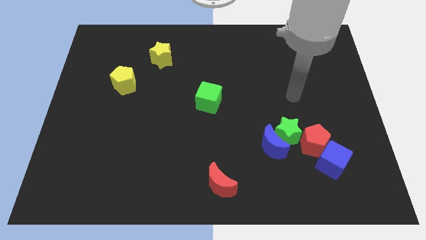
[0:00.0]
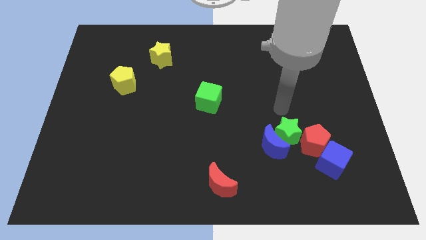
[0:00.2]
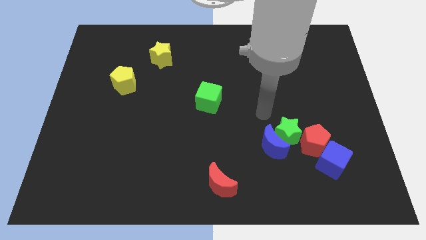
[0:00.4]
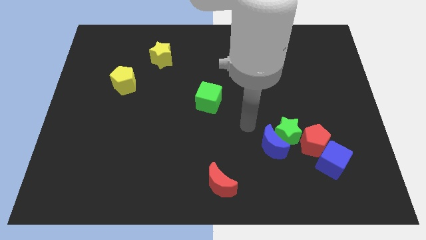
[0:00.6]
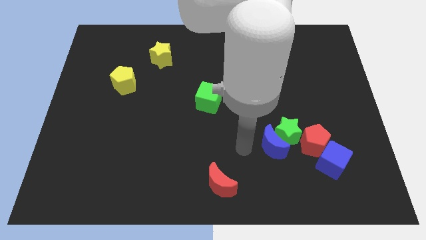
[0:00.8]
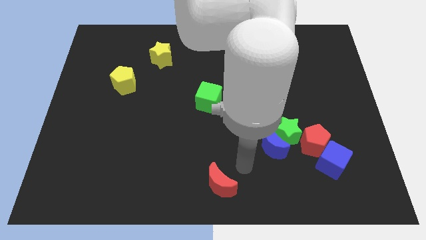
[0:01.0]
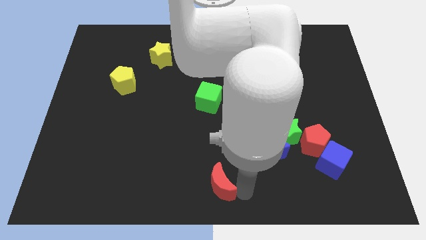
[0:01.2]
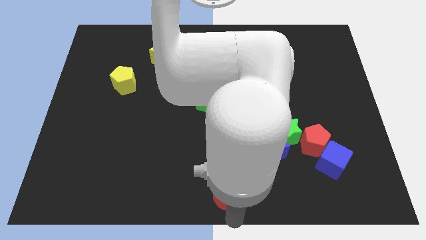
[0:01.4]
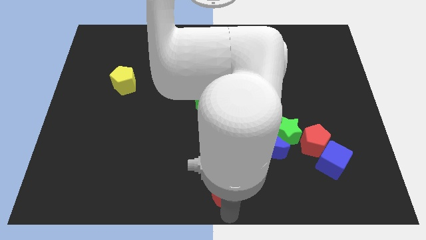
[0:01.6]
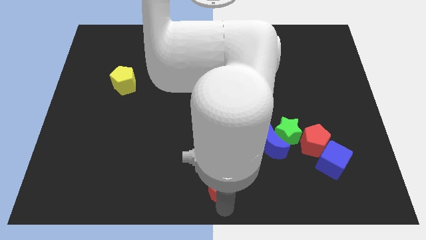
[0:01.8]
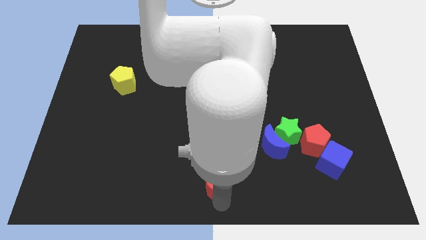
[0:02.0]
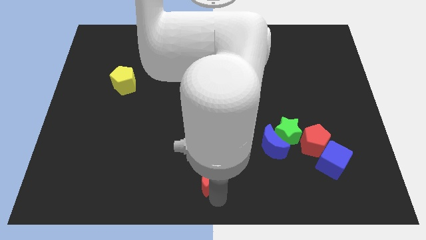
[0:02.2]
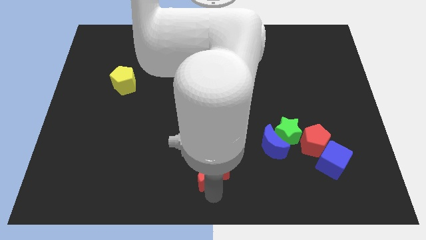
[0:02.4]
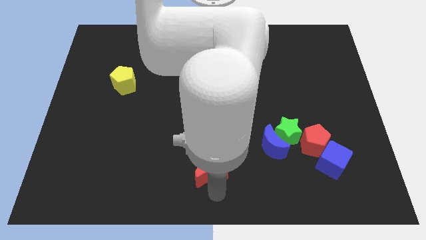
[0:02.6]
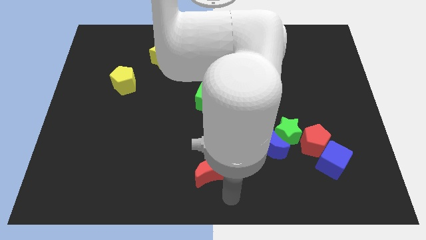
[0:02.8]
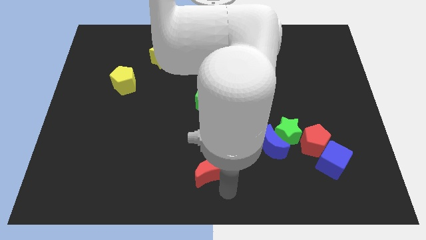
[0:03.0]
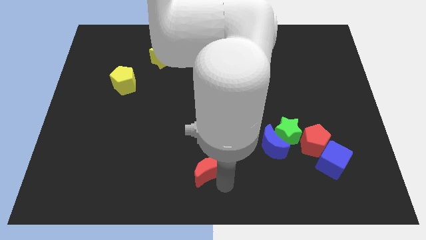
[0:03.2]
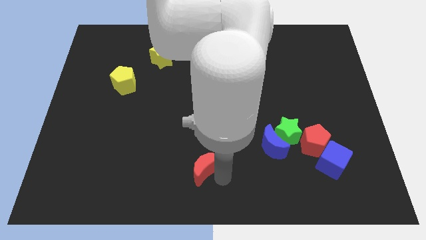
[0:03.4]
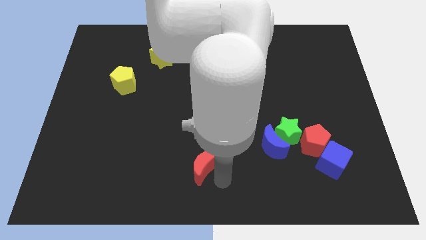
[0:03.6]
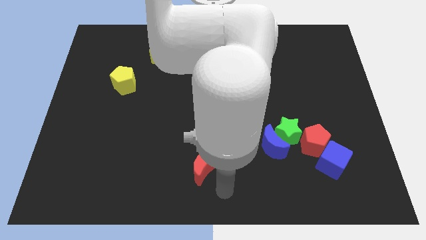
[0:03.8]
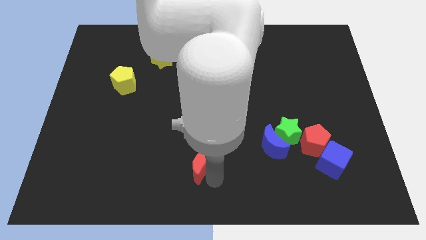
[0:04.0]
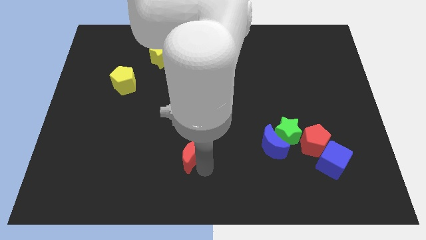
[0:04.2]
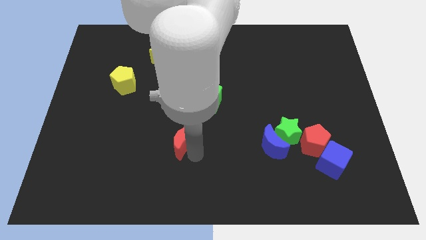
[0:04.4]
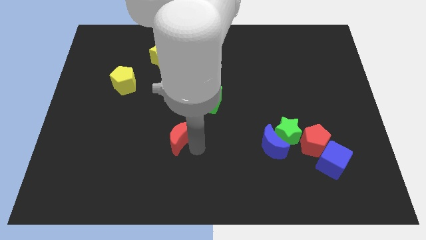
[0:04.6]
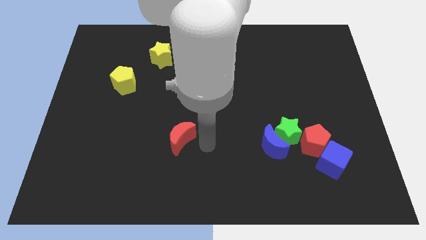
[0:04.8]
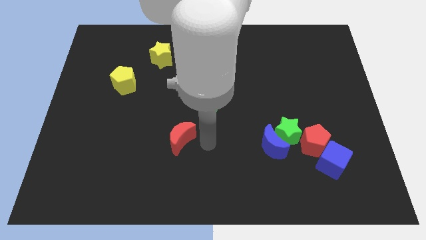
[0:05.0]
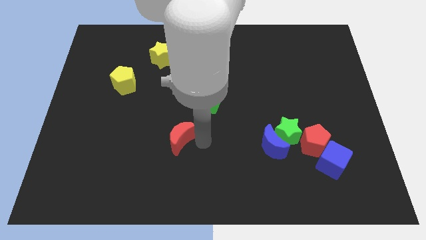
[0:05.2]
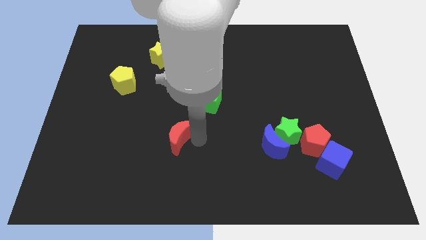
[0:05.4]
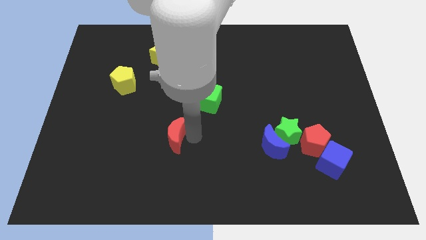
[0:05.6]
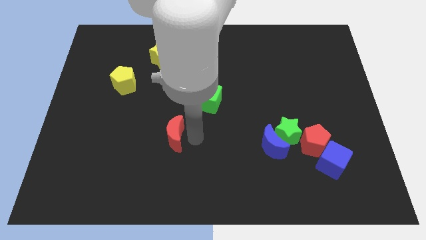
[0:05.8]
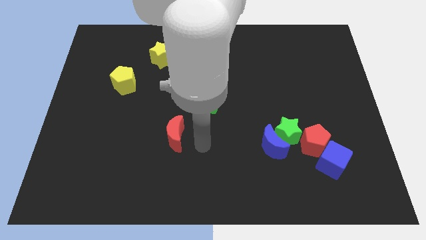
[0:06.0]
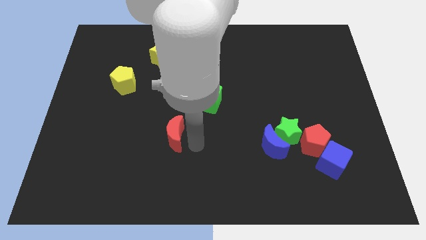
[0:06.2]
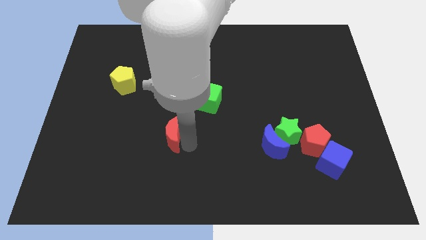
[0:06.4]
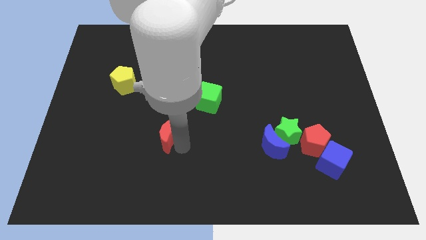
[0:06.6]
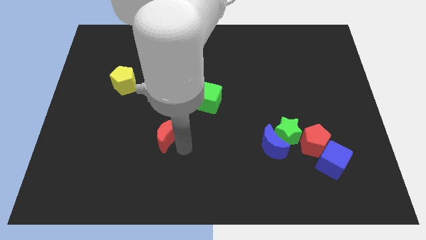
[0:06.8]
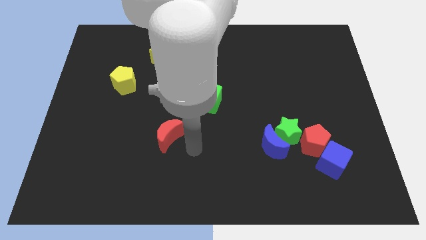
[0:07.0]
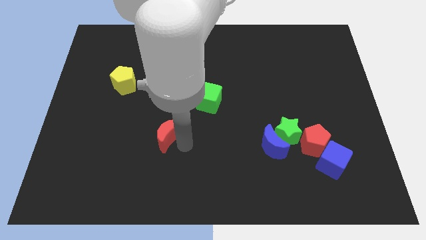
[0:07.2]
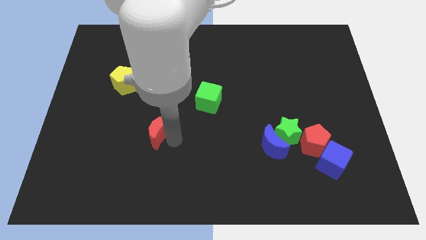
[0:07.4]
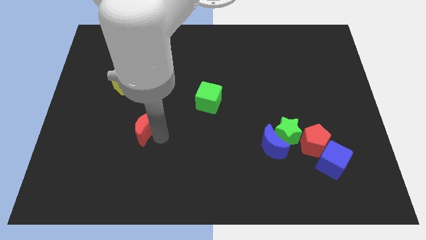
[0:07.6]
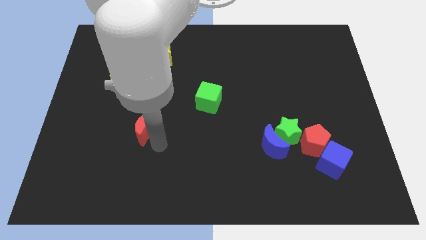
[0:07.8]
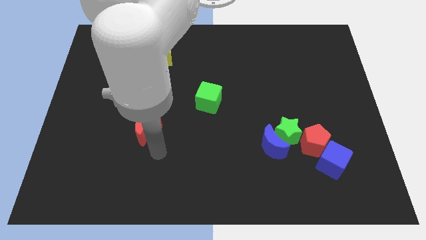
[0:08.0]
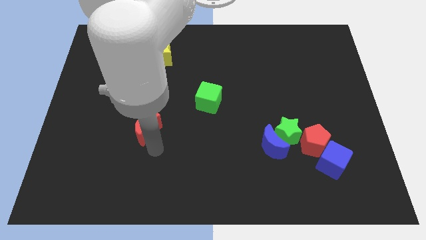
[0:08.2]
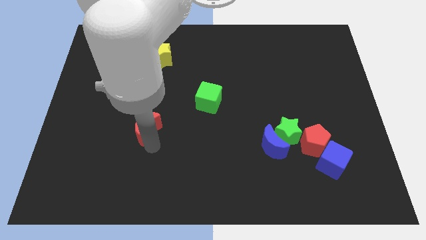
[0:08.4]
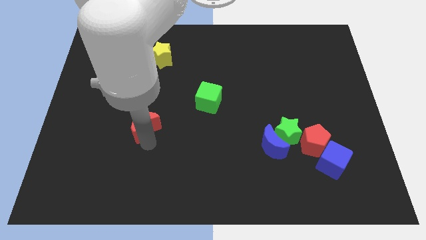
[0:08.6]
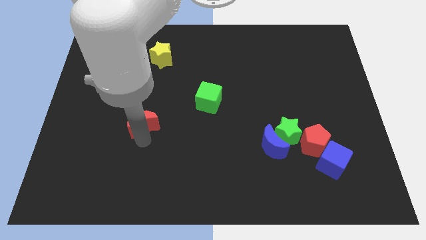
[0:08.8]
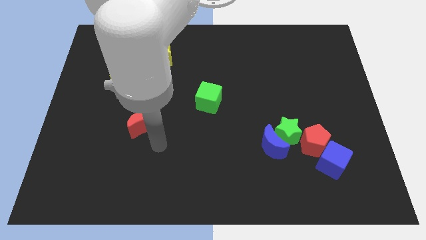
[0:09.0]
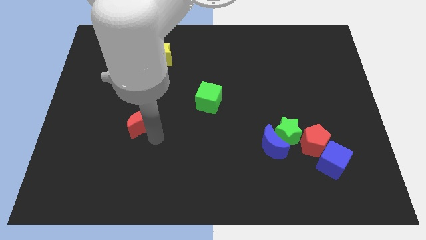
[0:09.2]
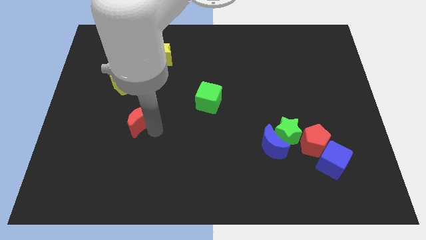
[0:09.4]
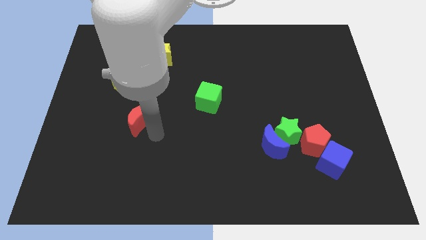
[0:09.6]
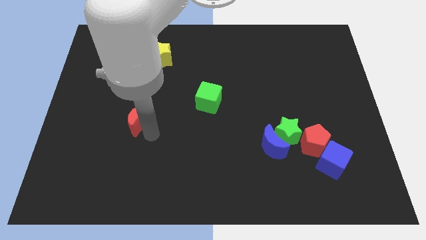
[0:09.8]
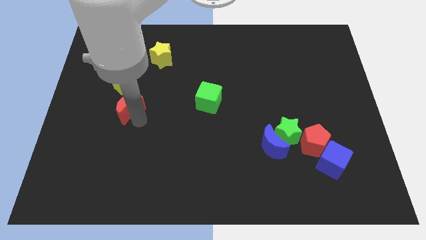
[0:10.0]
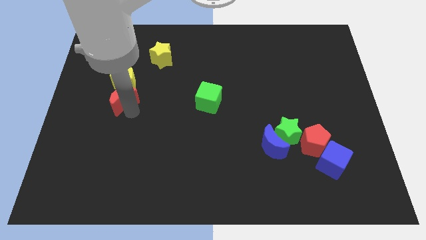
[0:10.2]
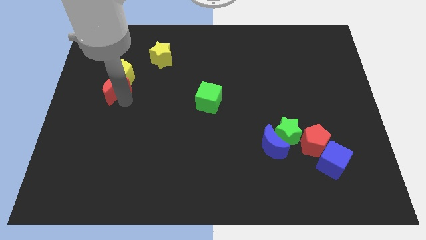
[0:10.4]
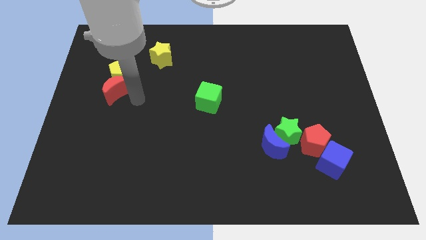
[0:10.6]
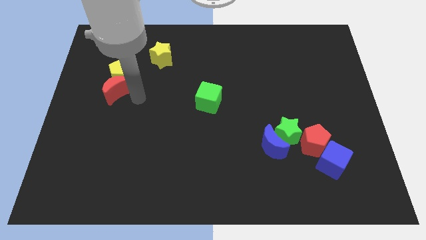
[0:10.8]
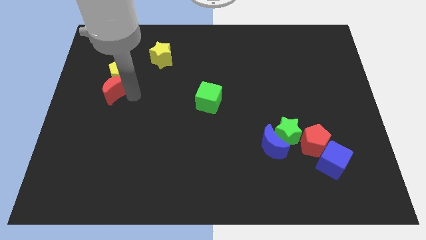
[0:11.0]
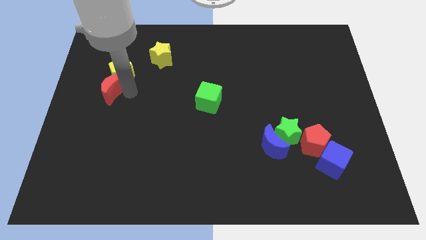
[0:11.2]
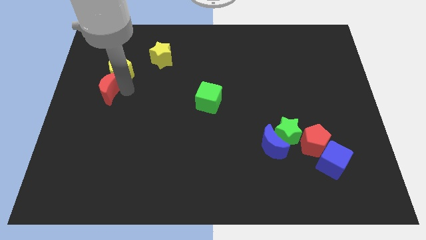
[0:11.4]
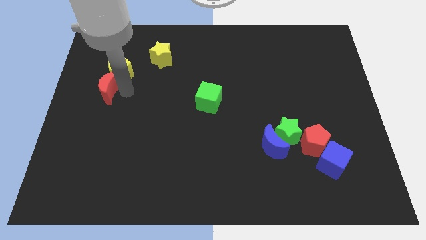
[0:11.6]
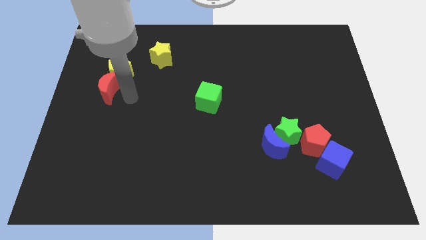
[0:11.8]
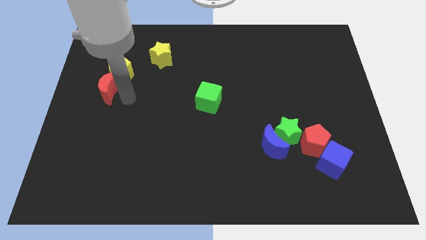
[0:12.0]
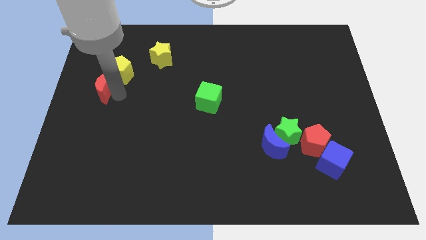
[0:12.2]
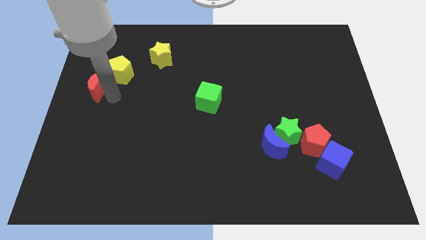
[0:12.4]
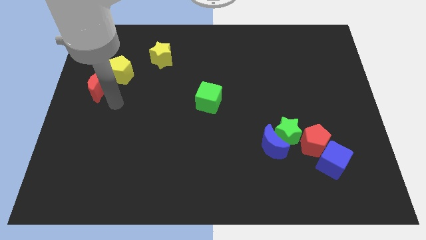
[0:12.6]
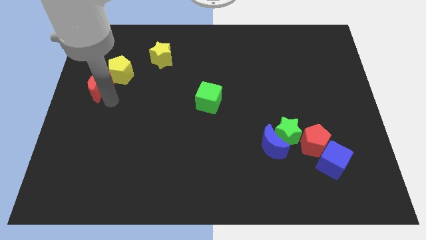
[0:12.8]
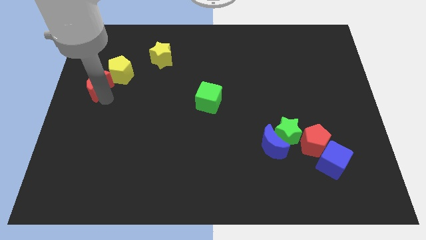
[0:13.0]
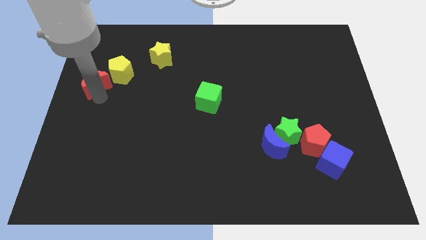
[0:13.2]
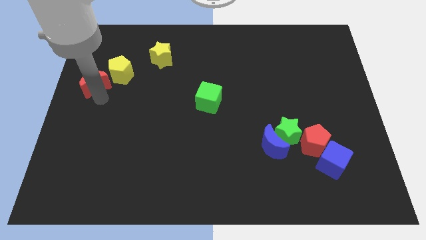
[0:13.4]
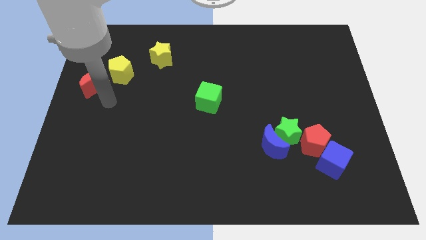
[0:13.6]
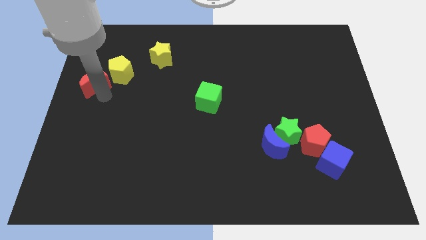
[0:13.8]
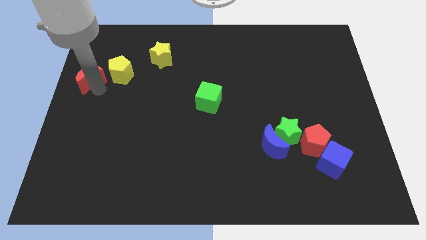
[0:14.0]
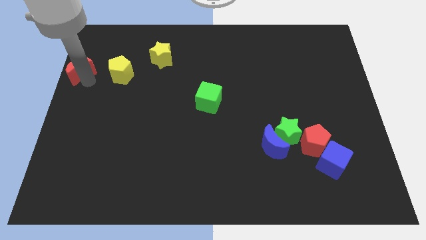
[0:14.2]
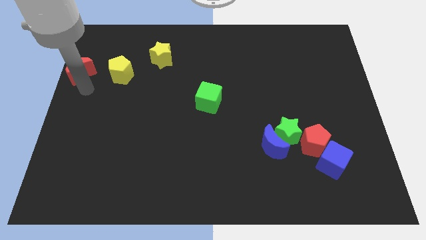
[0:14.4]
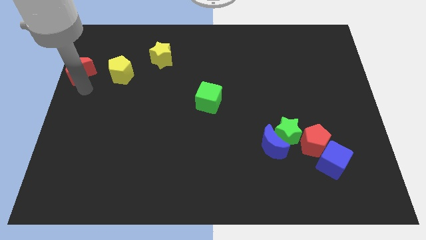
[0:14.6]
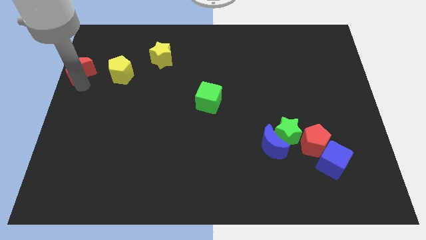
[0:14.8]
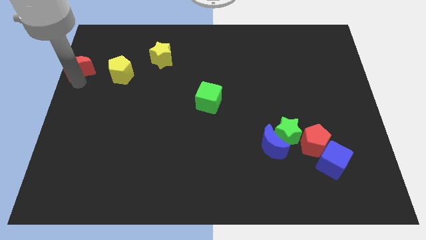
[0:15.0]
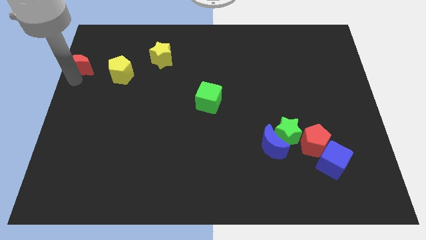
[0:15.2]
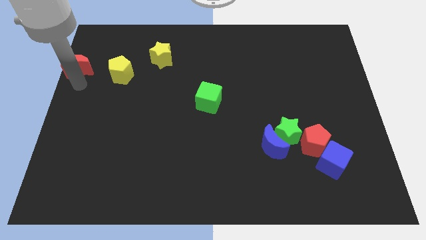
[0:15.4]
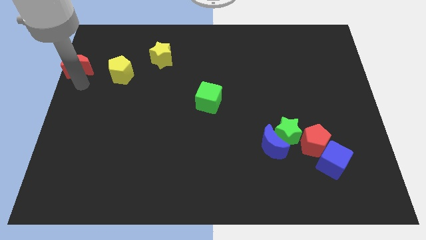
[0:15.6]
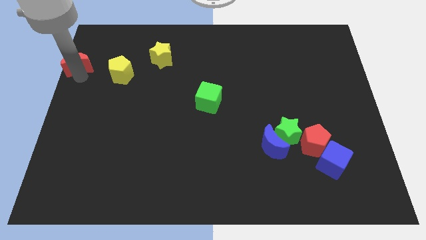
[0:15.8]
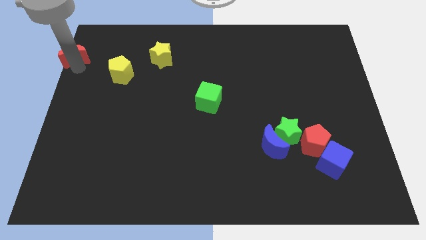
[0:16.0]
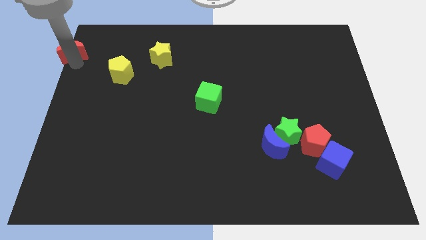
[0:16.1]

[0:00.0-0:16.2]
move the red moon to the top left of the board
